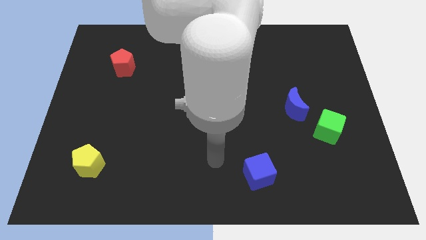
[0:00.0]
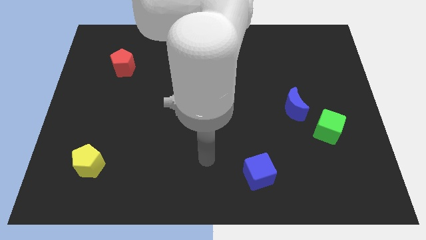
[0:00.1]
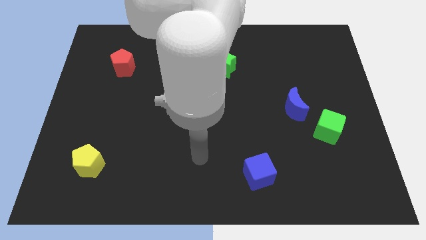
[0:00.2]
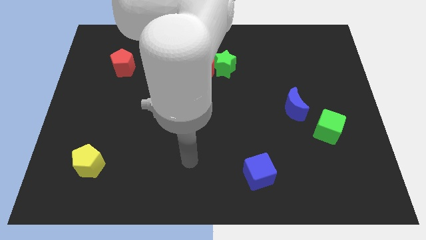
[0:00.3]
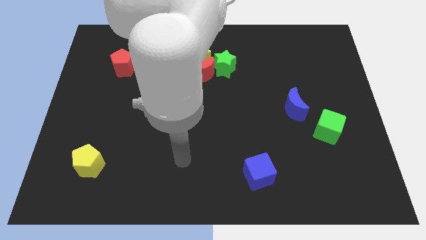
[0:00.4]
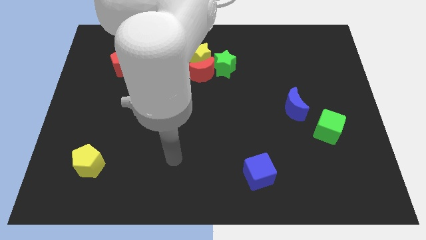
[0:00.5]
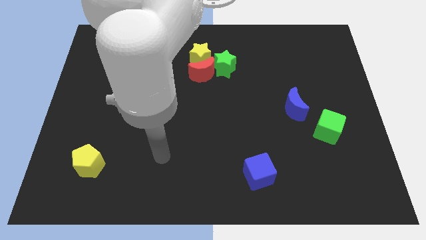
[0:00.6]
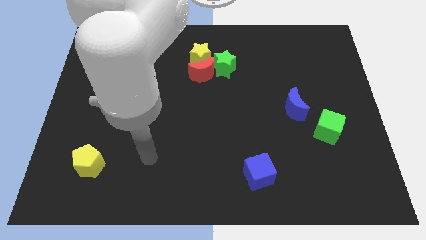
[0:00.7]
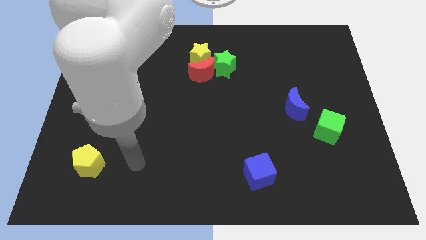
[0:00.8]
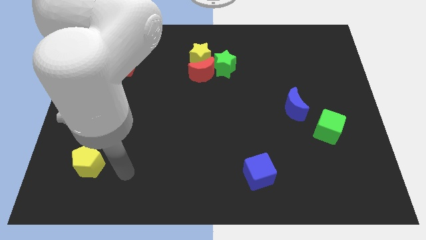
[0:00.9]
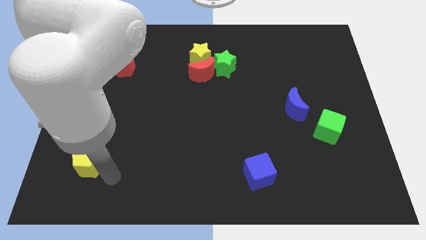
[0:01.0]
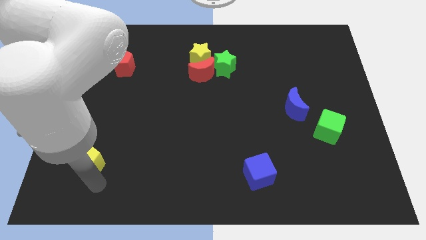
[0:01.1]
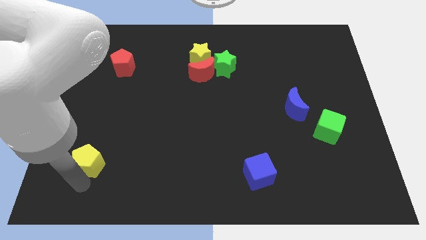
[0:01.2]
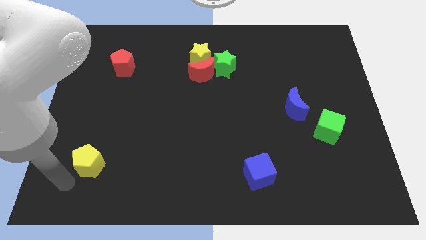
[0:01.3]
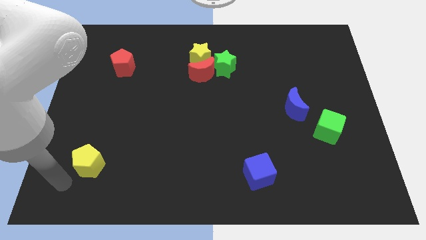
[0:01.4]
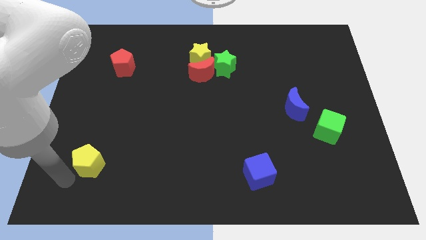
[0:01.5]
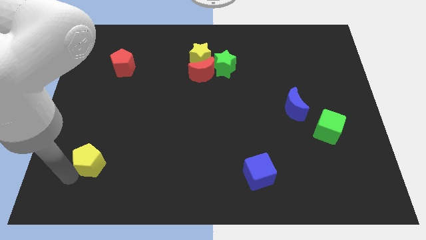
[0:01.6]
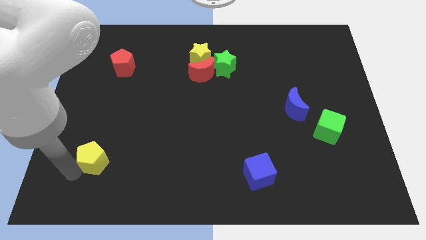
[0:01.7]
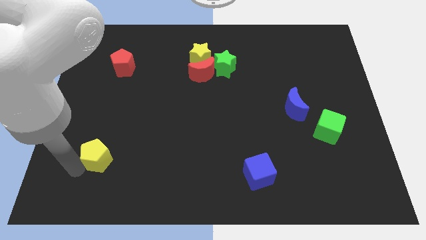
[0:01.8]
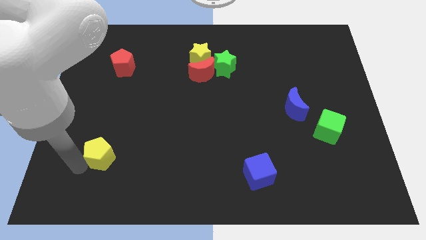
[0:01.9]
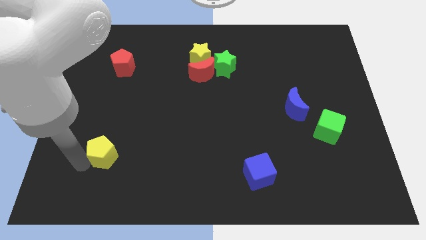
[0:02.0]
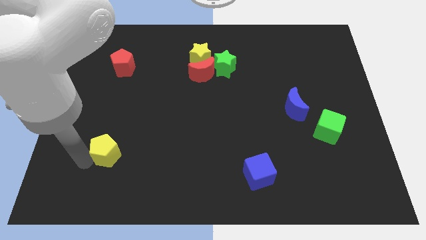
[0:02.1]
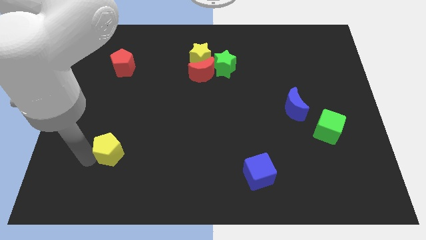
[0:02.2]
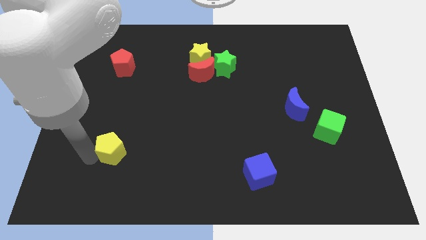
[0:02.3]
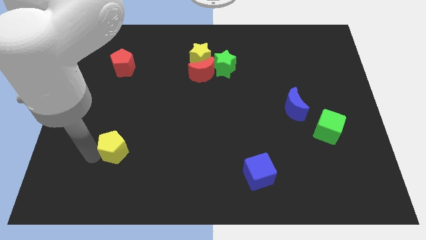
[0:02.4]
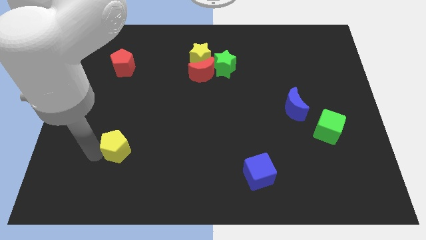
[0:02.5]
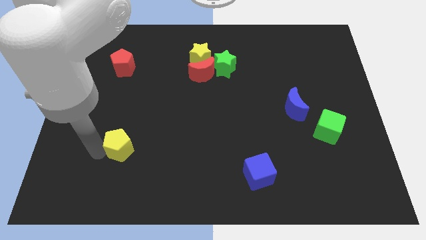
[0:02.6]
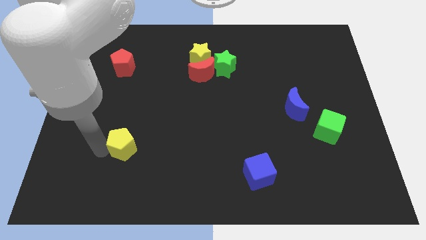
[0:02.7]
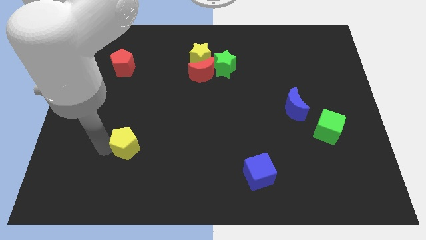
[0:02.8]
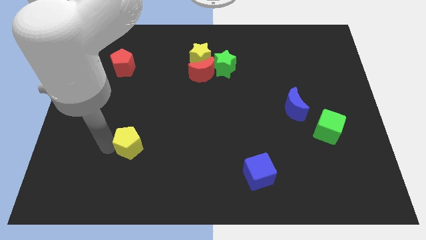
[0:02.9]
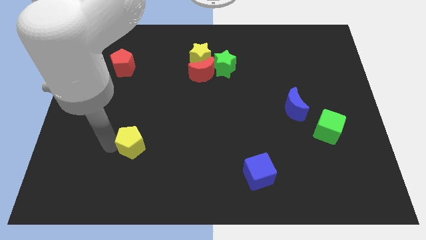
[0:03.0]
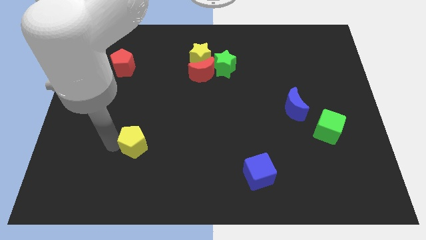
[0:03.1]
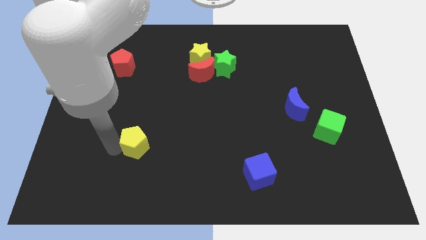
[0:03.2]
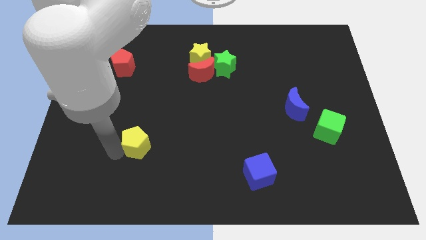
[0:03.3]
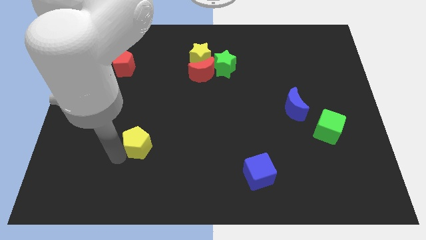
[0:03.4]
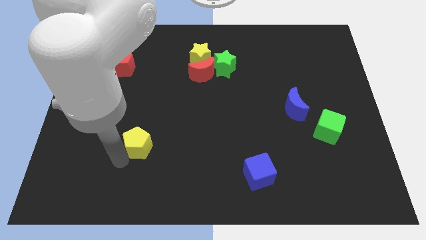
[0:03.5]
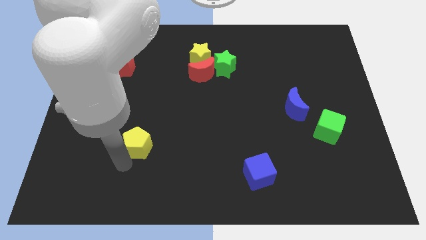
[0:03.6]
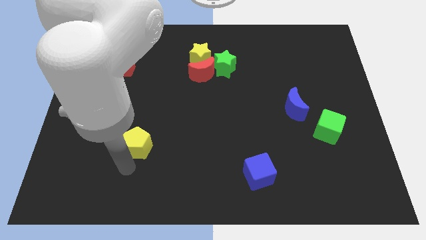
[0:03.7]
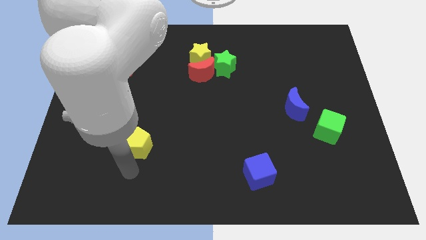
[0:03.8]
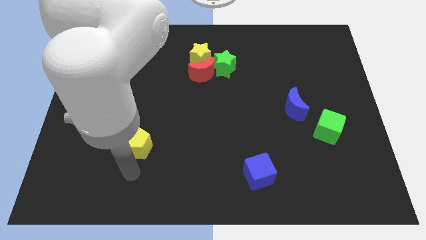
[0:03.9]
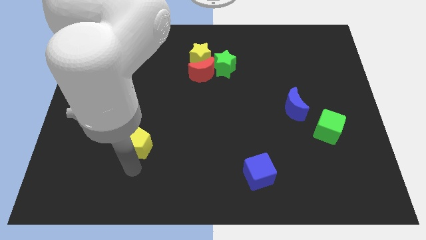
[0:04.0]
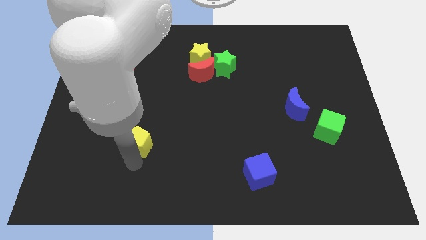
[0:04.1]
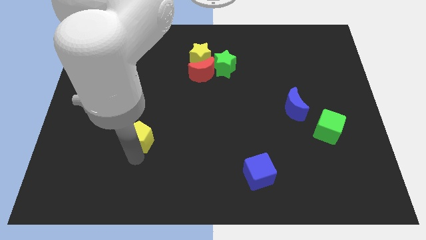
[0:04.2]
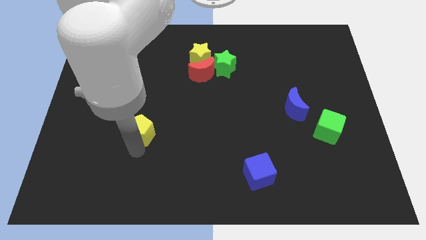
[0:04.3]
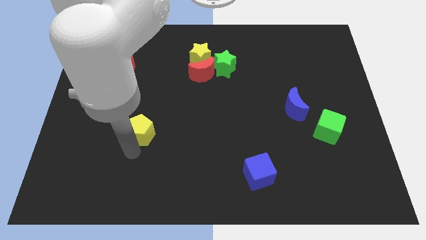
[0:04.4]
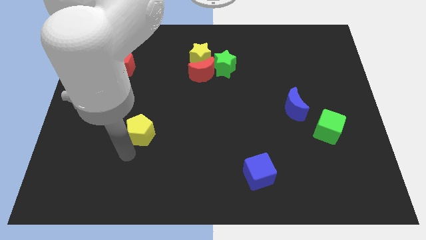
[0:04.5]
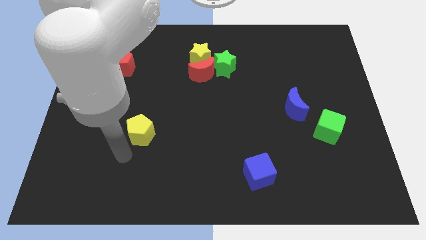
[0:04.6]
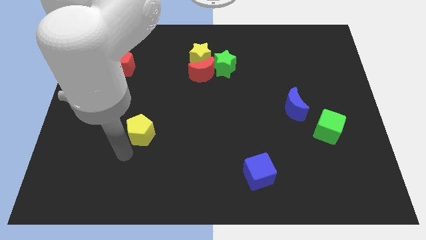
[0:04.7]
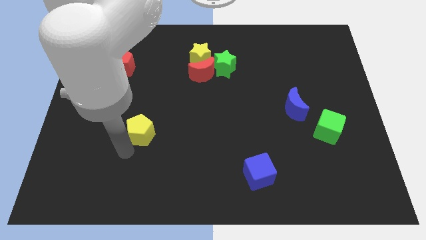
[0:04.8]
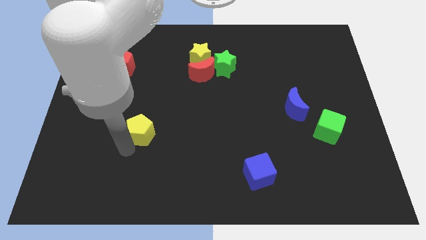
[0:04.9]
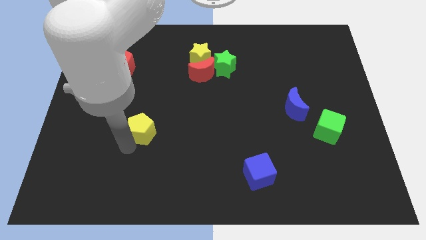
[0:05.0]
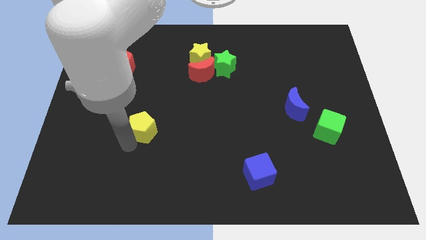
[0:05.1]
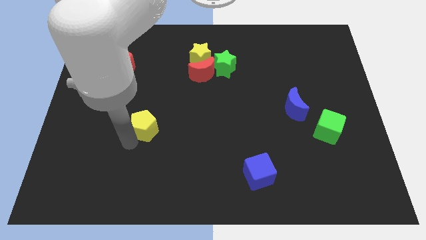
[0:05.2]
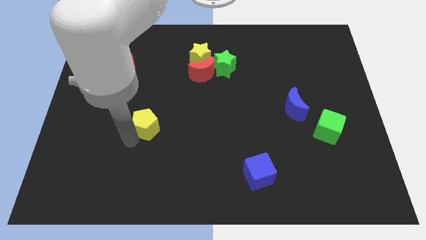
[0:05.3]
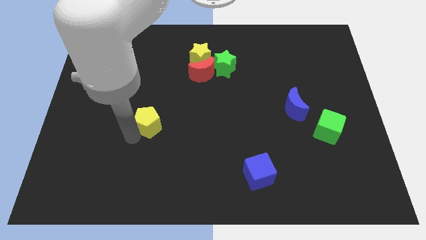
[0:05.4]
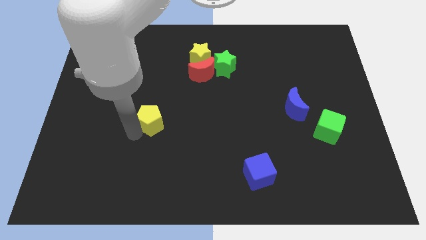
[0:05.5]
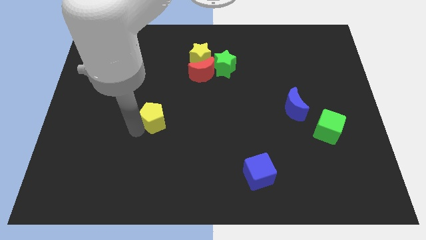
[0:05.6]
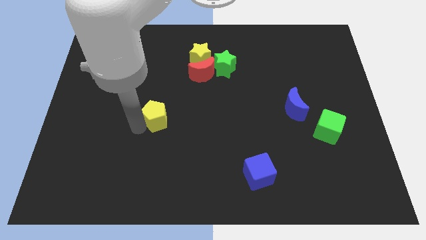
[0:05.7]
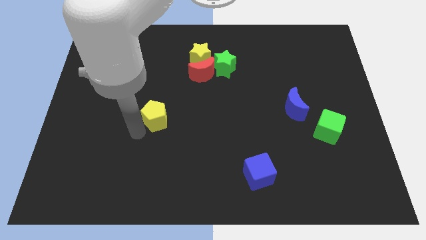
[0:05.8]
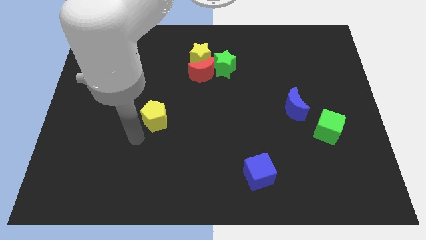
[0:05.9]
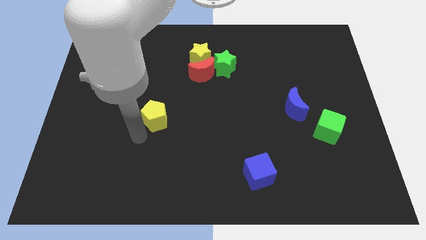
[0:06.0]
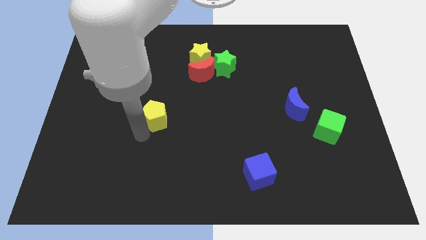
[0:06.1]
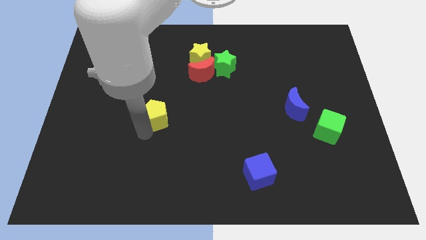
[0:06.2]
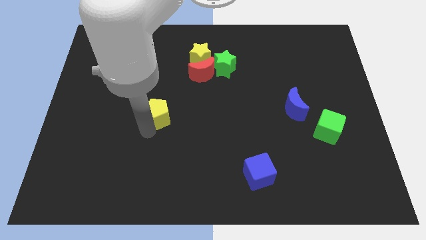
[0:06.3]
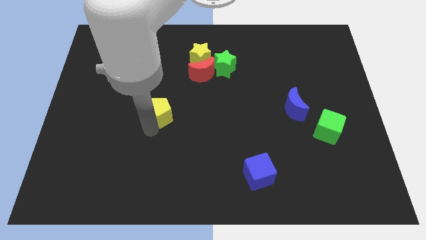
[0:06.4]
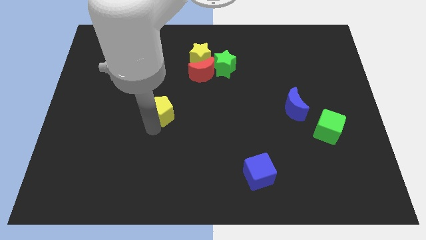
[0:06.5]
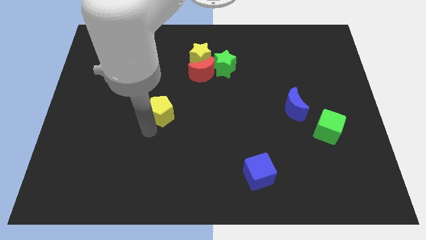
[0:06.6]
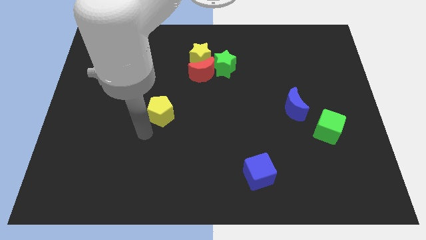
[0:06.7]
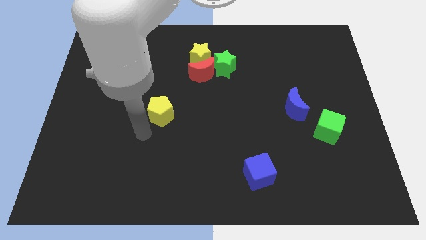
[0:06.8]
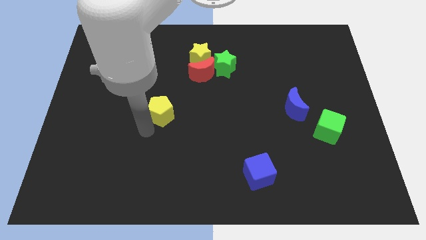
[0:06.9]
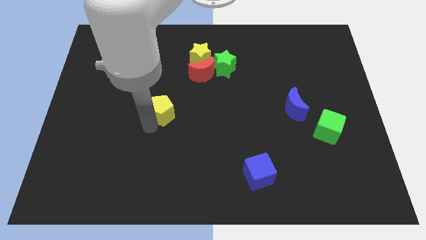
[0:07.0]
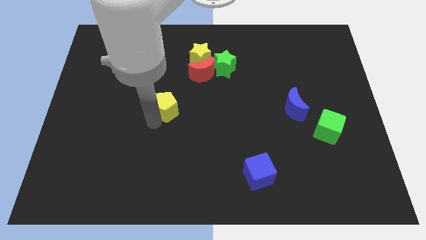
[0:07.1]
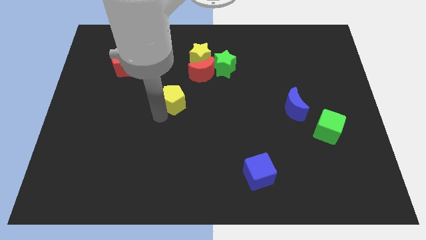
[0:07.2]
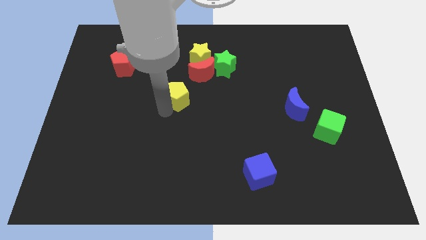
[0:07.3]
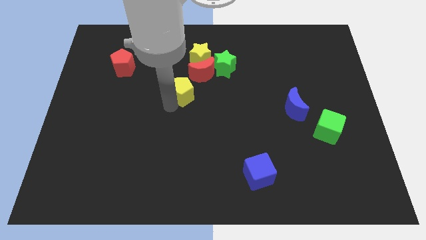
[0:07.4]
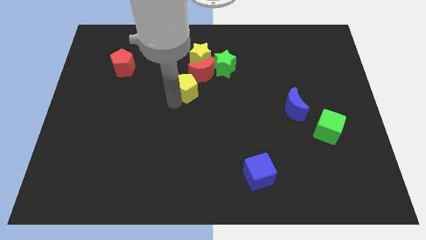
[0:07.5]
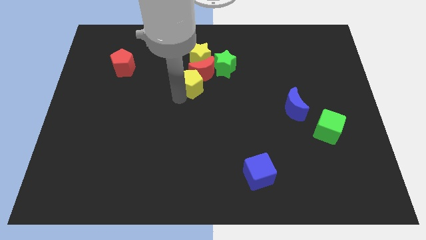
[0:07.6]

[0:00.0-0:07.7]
put the yellow pentagon towards the red moon
